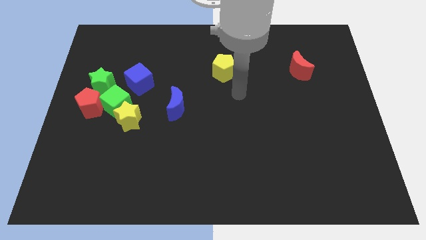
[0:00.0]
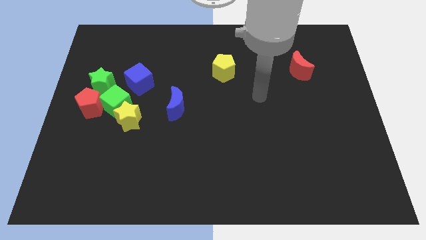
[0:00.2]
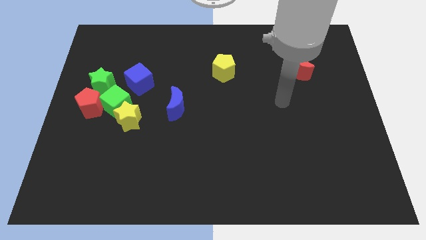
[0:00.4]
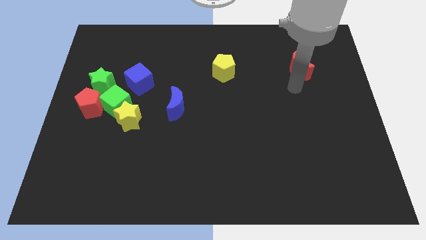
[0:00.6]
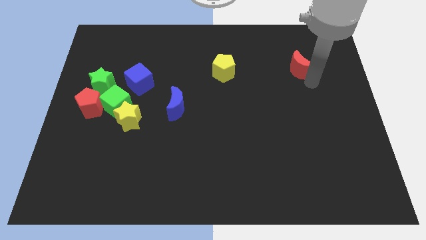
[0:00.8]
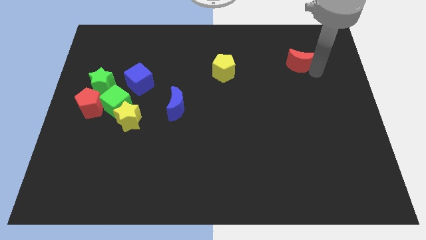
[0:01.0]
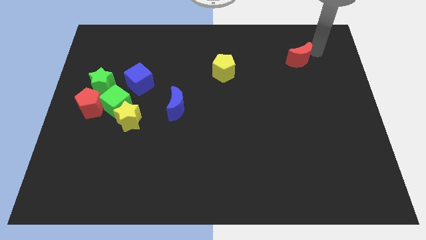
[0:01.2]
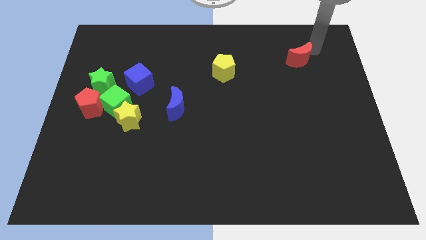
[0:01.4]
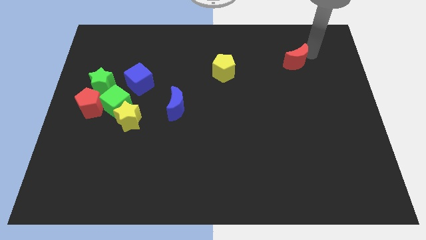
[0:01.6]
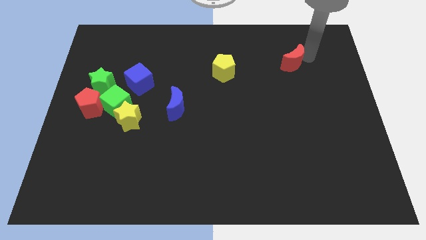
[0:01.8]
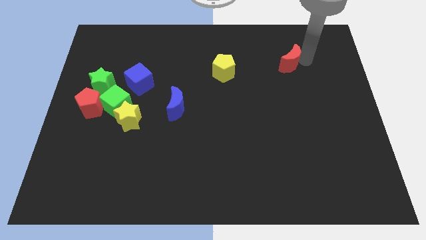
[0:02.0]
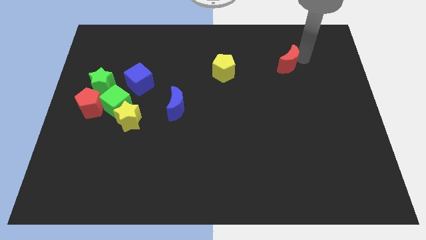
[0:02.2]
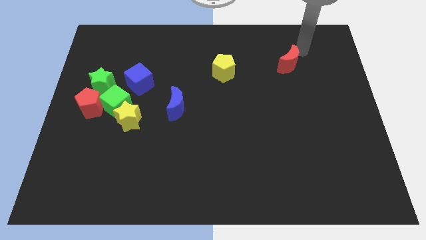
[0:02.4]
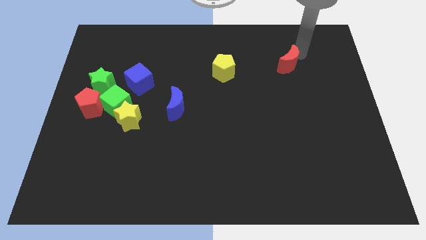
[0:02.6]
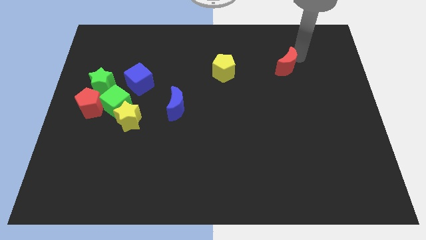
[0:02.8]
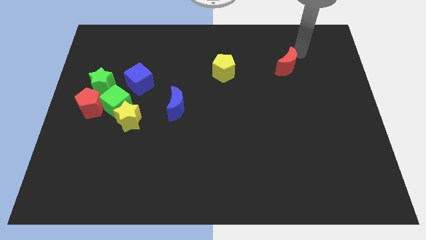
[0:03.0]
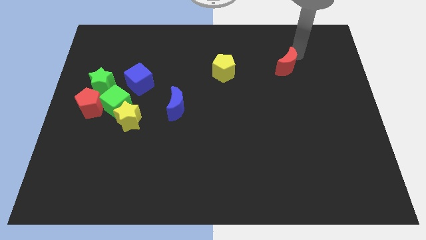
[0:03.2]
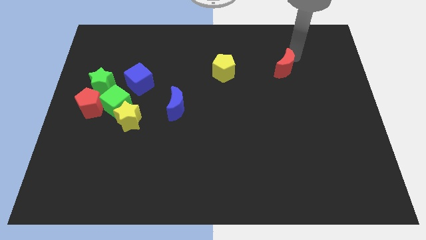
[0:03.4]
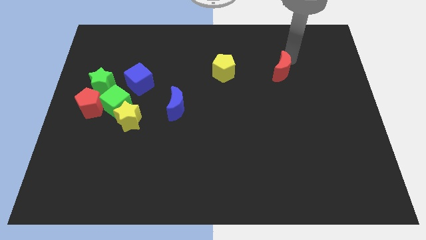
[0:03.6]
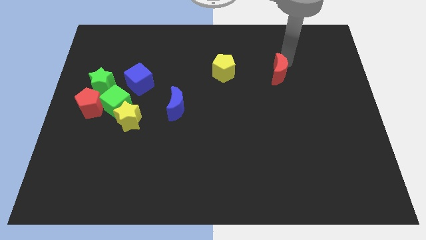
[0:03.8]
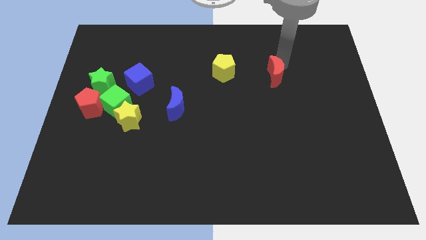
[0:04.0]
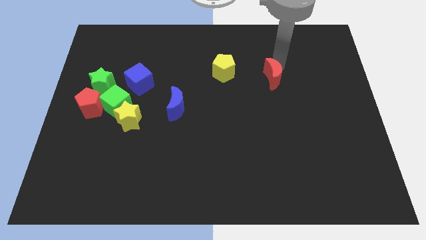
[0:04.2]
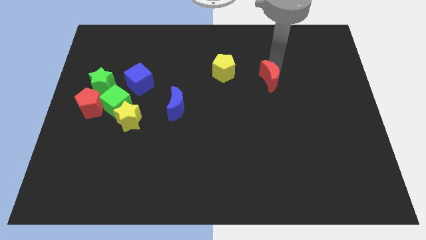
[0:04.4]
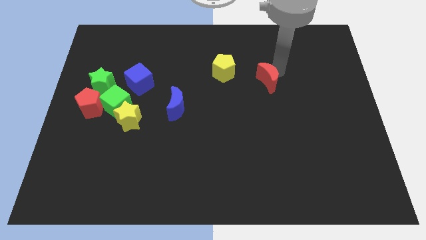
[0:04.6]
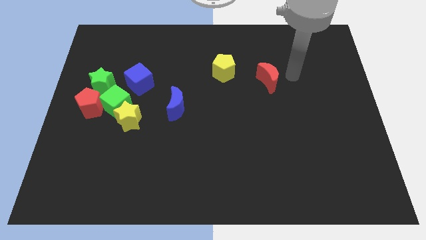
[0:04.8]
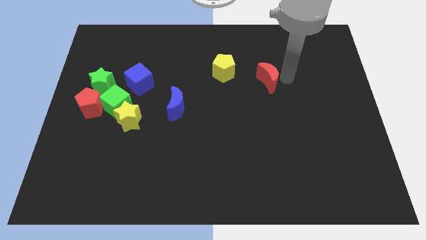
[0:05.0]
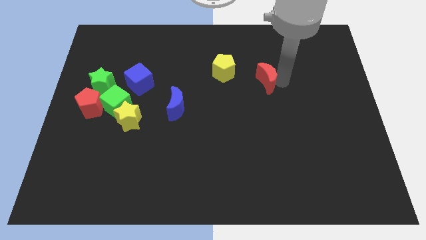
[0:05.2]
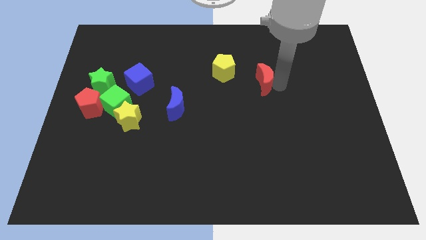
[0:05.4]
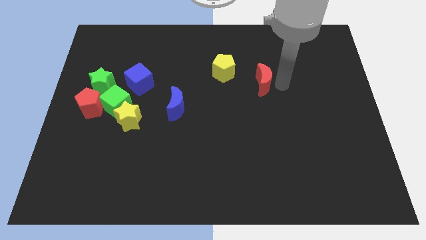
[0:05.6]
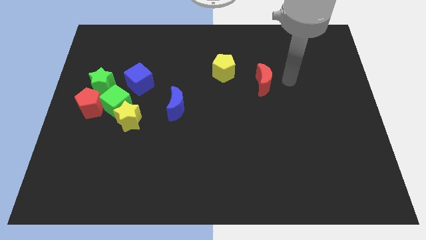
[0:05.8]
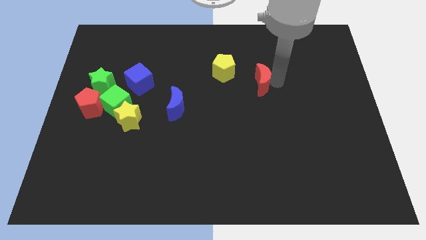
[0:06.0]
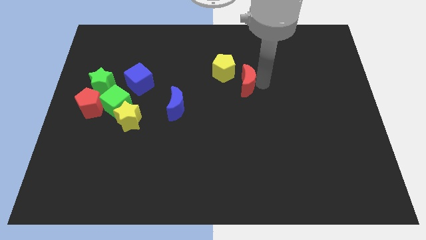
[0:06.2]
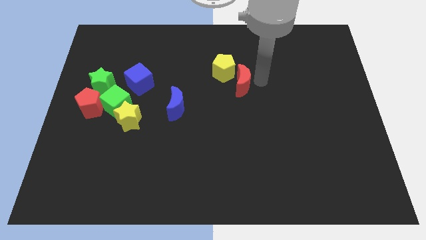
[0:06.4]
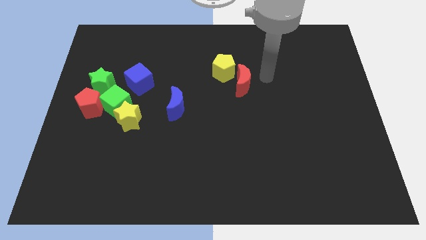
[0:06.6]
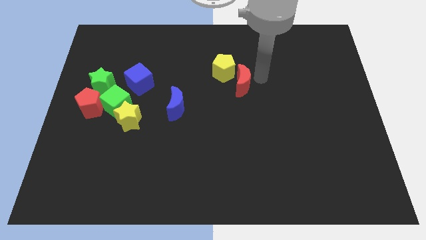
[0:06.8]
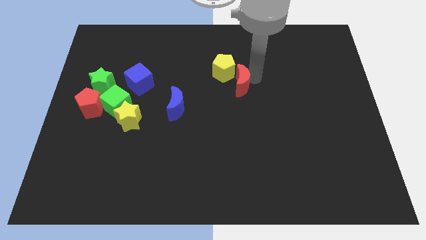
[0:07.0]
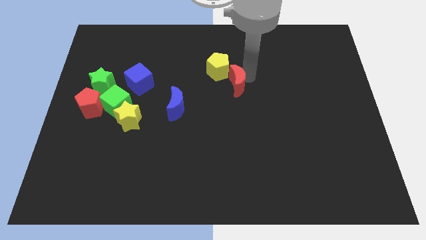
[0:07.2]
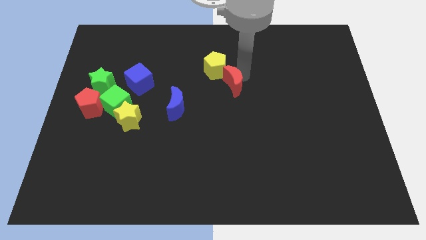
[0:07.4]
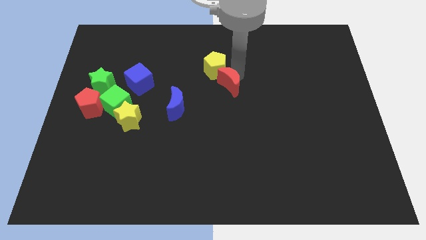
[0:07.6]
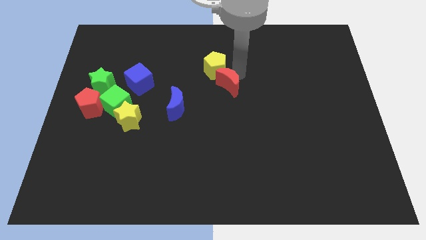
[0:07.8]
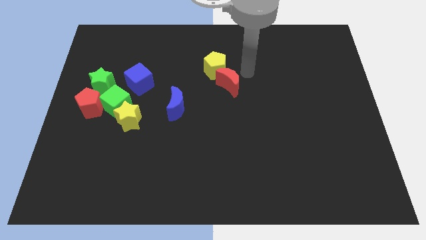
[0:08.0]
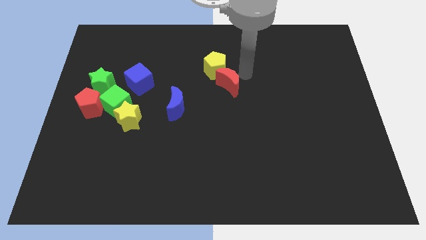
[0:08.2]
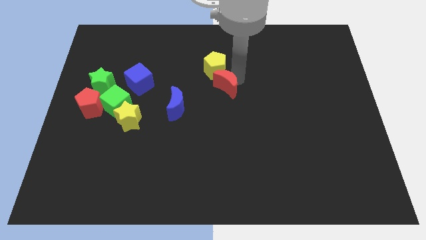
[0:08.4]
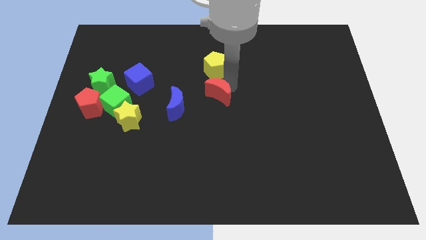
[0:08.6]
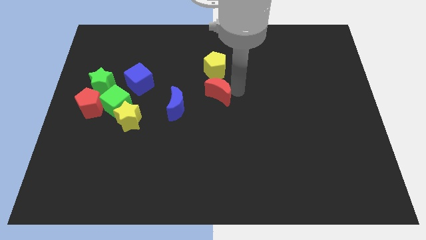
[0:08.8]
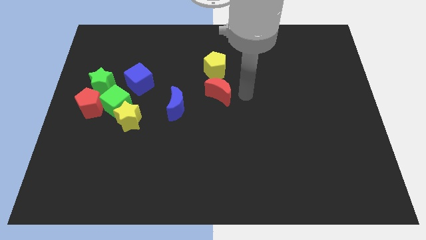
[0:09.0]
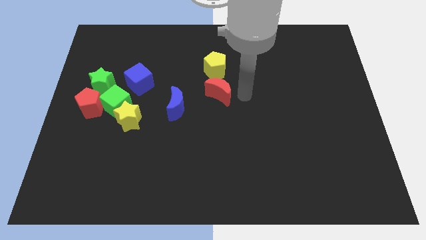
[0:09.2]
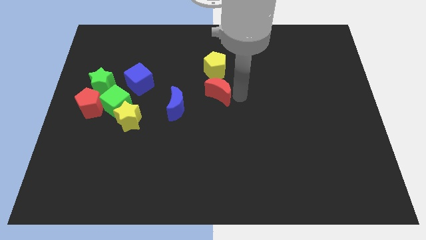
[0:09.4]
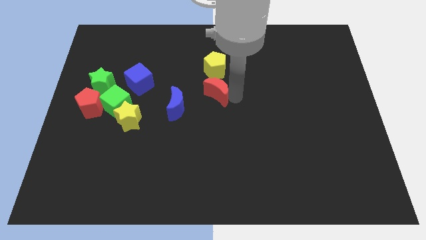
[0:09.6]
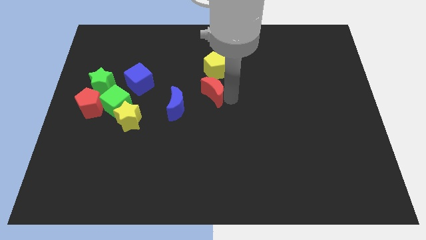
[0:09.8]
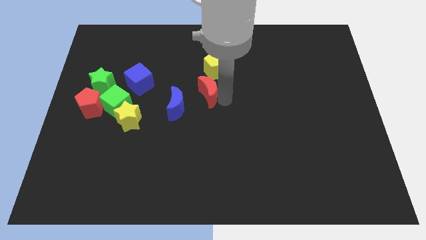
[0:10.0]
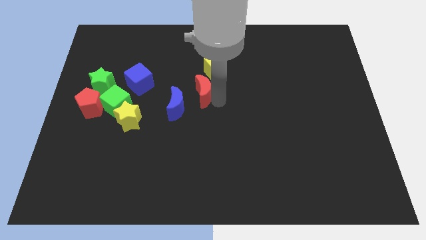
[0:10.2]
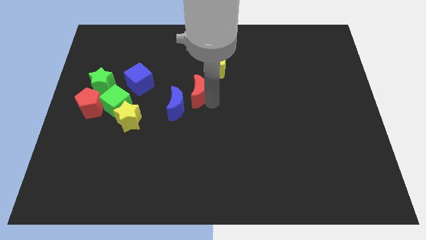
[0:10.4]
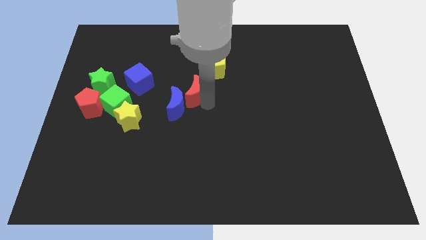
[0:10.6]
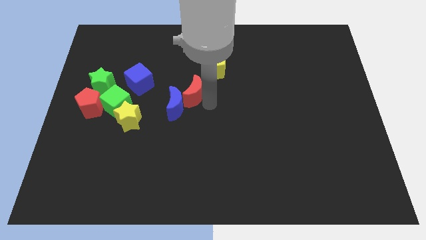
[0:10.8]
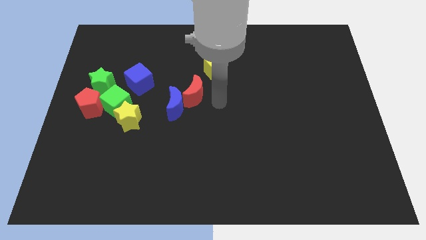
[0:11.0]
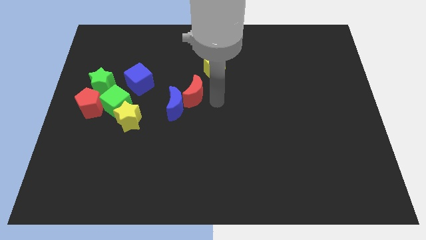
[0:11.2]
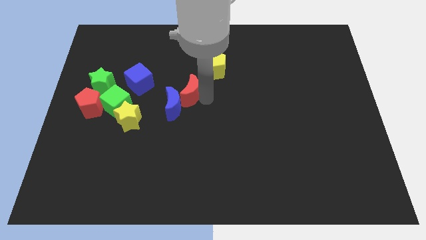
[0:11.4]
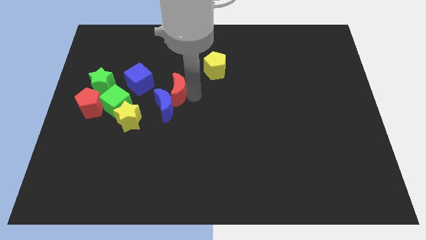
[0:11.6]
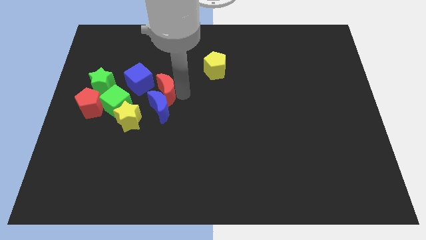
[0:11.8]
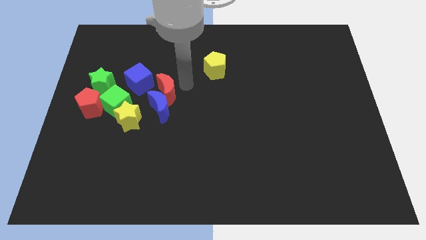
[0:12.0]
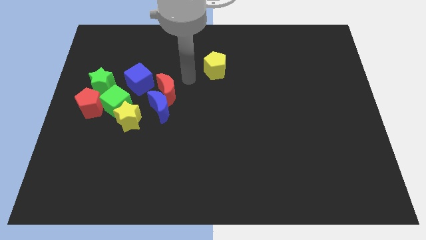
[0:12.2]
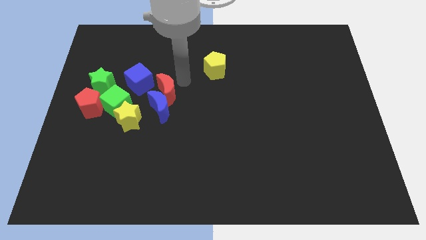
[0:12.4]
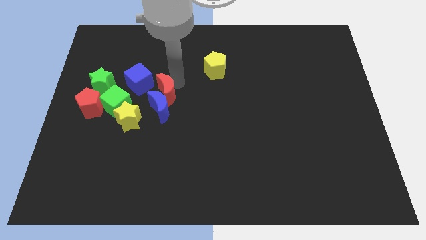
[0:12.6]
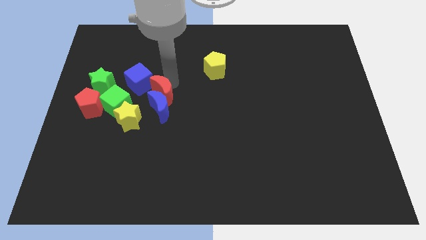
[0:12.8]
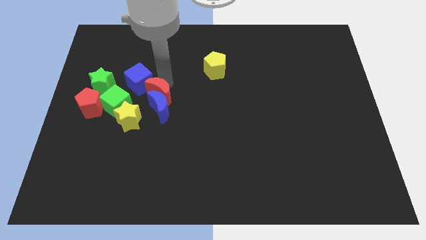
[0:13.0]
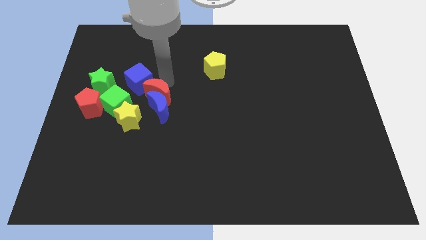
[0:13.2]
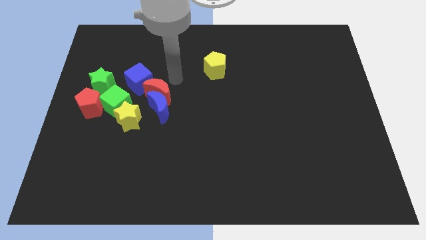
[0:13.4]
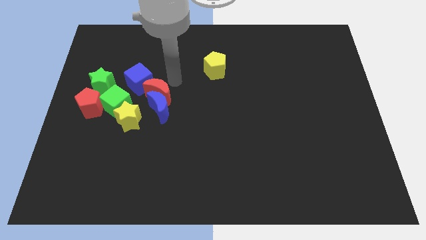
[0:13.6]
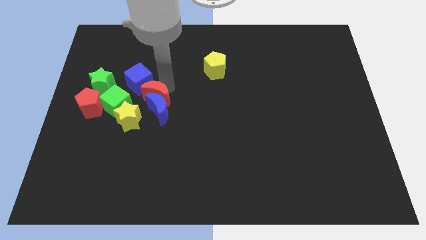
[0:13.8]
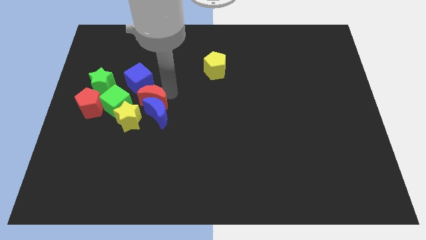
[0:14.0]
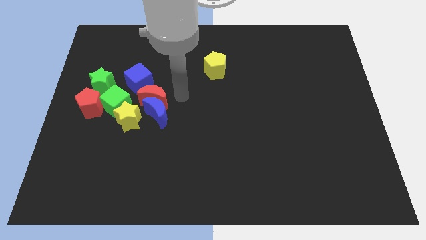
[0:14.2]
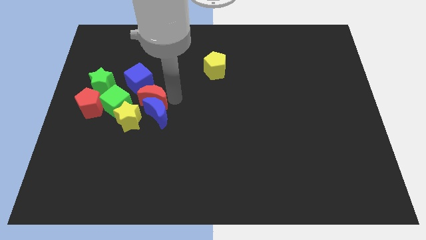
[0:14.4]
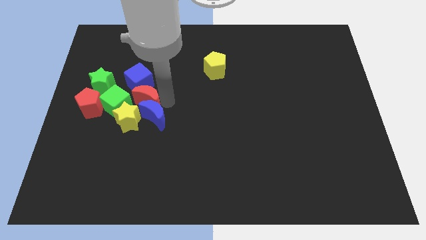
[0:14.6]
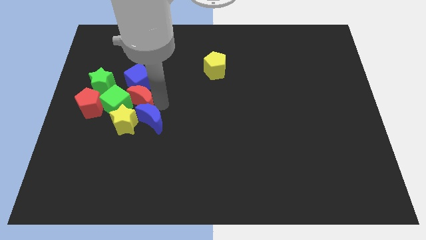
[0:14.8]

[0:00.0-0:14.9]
slide the red moon next to the green cube
